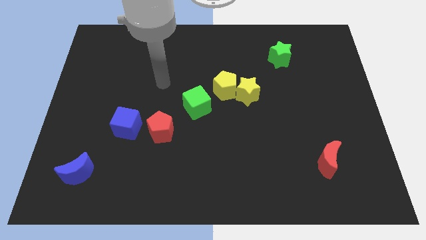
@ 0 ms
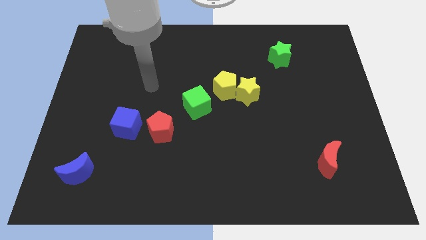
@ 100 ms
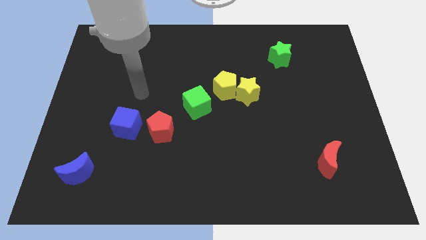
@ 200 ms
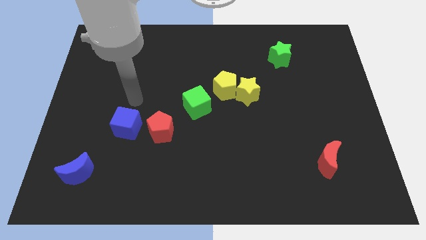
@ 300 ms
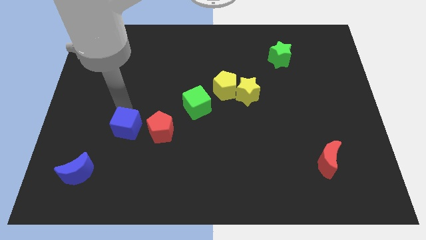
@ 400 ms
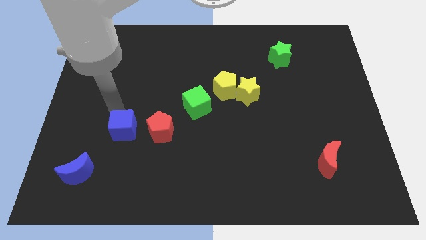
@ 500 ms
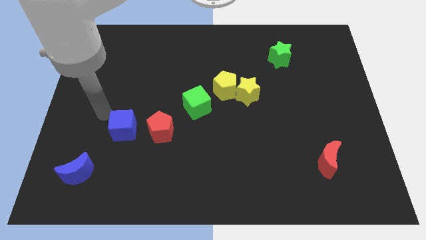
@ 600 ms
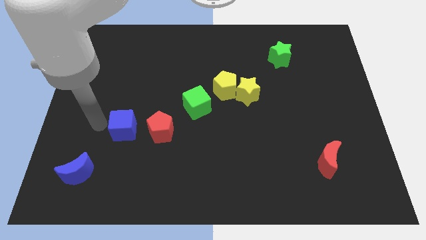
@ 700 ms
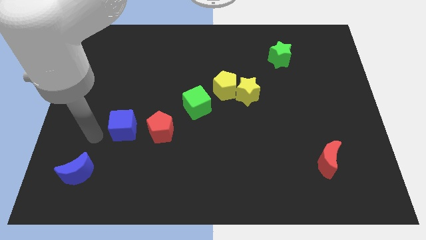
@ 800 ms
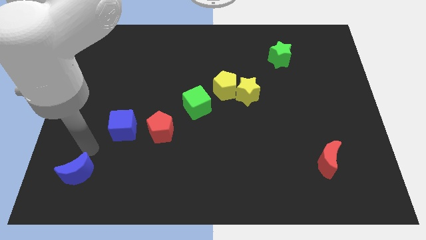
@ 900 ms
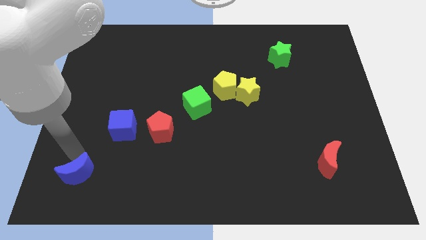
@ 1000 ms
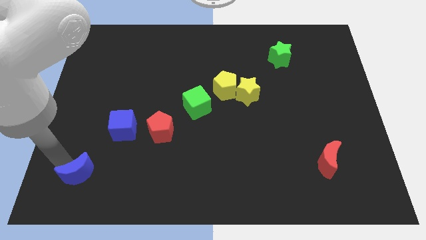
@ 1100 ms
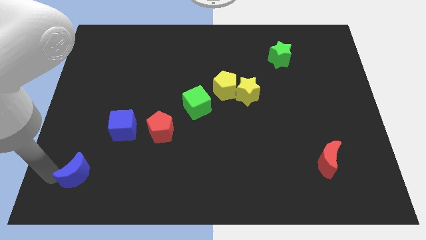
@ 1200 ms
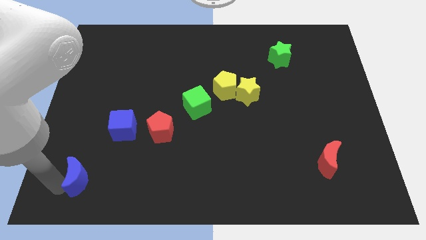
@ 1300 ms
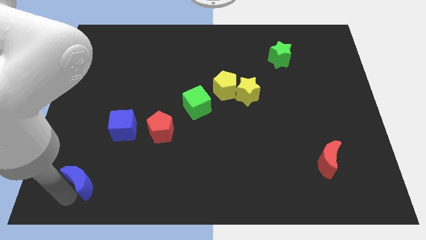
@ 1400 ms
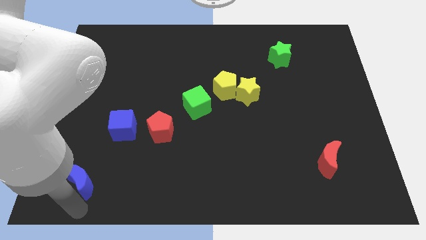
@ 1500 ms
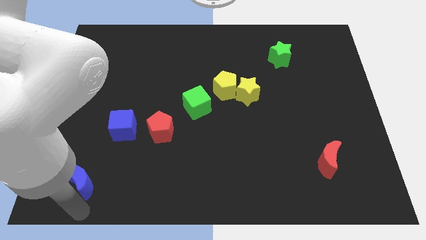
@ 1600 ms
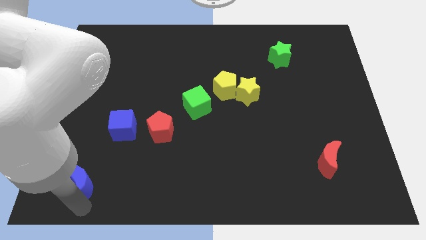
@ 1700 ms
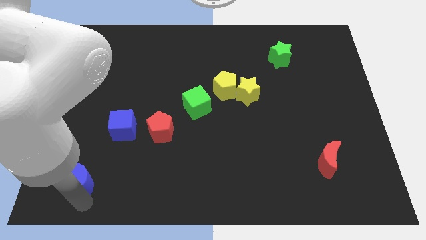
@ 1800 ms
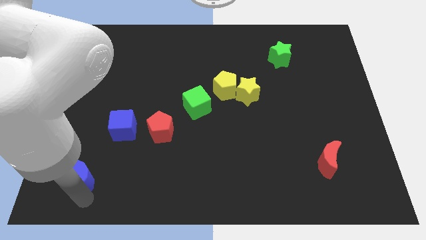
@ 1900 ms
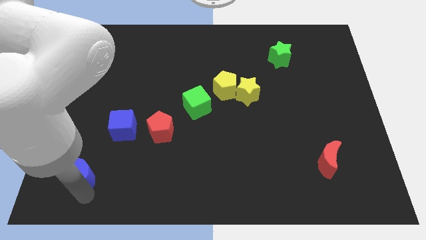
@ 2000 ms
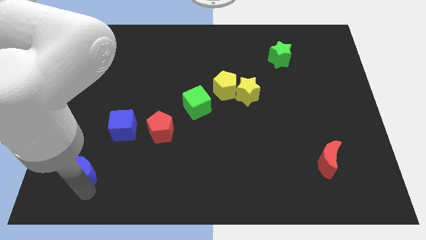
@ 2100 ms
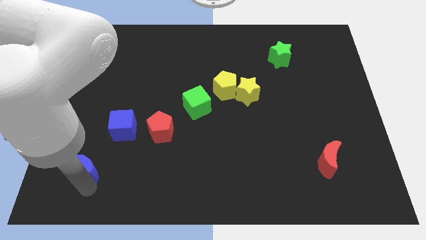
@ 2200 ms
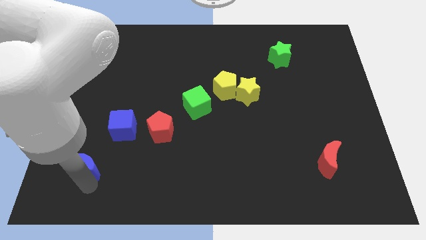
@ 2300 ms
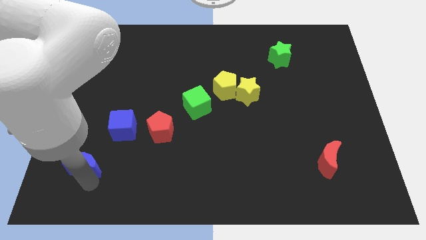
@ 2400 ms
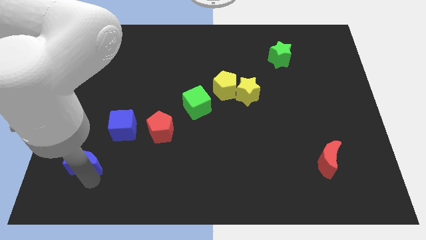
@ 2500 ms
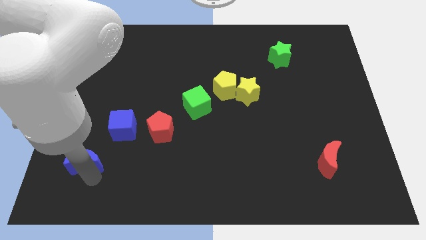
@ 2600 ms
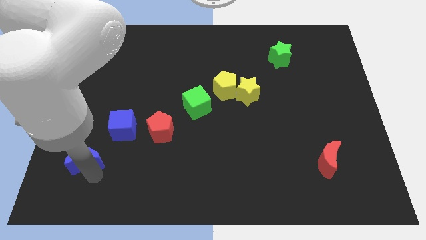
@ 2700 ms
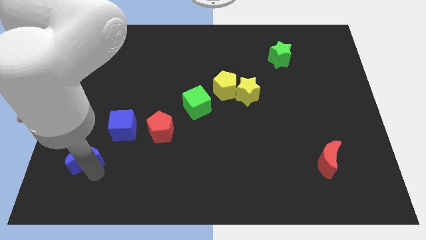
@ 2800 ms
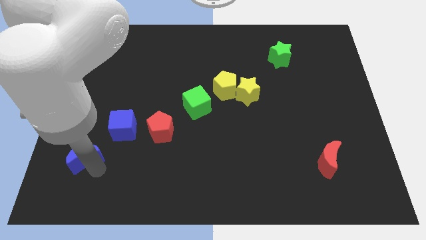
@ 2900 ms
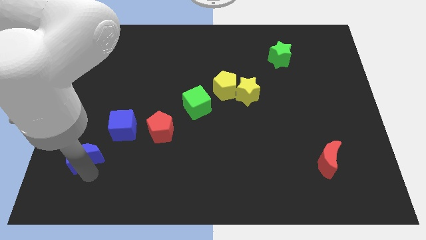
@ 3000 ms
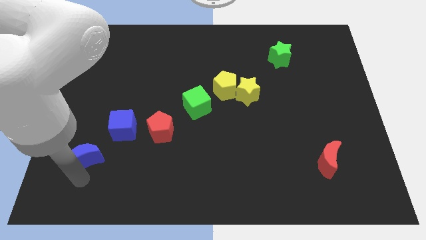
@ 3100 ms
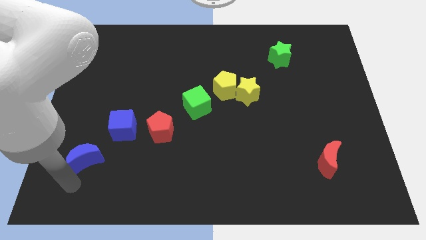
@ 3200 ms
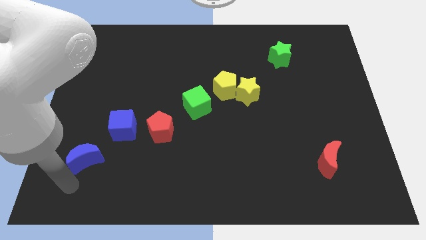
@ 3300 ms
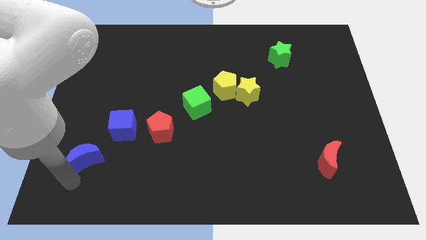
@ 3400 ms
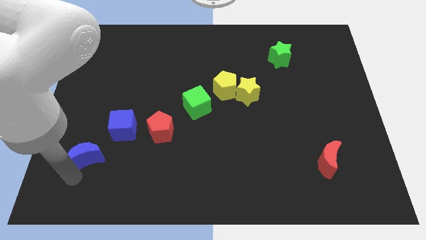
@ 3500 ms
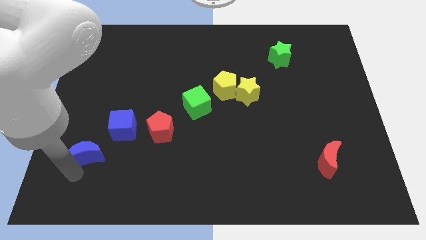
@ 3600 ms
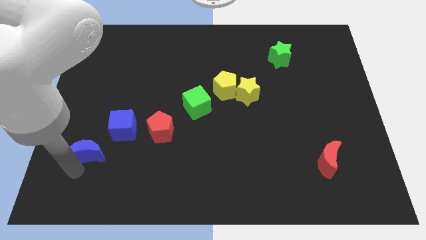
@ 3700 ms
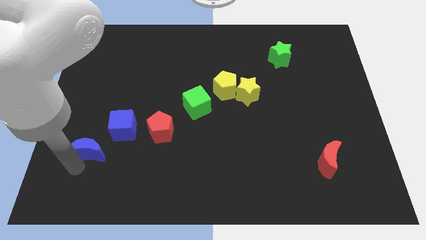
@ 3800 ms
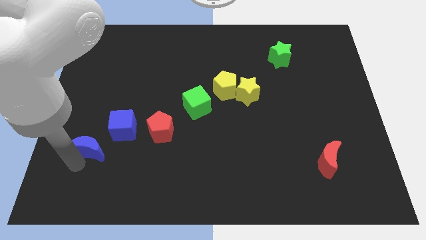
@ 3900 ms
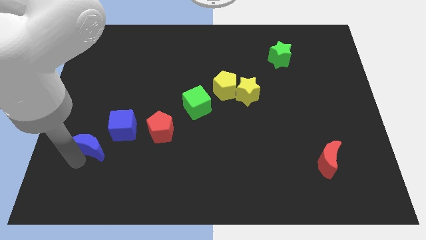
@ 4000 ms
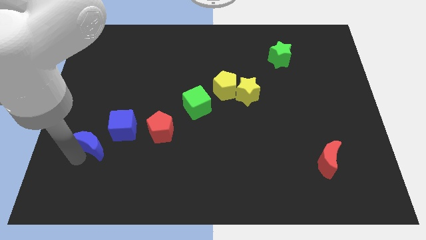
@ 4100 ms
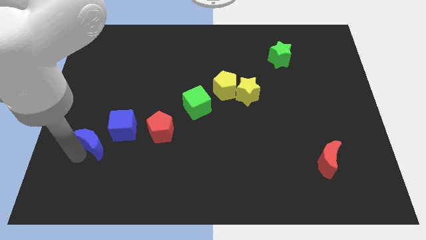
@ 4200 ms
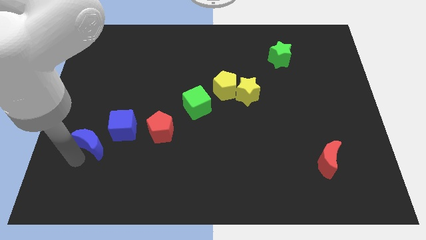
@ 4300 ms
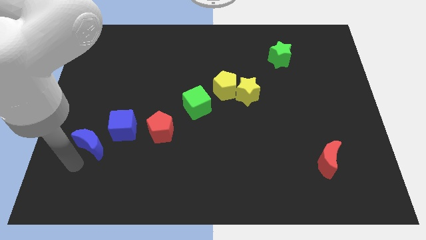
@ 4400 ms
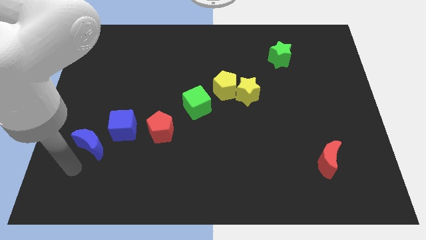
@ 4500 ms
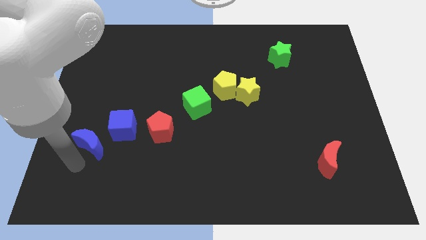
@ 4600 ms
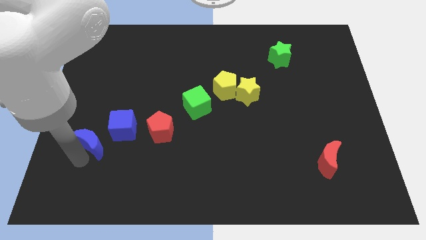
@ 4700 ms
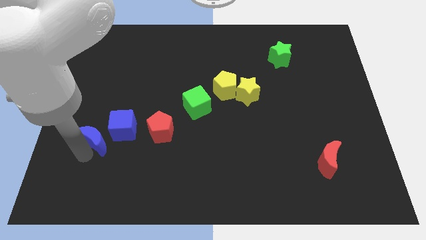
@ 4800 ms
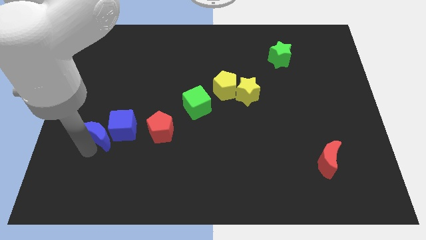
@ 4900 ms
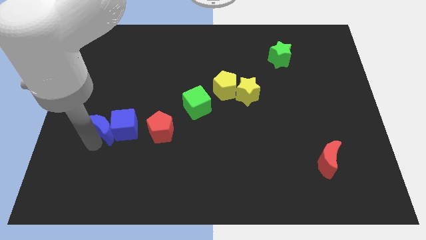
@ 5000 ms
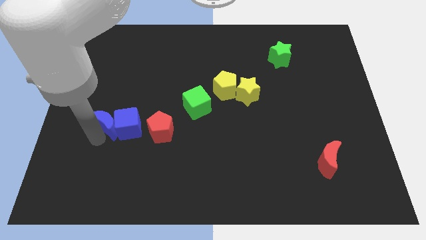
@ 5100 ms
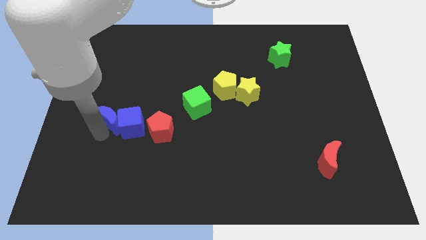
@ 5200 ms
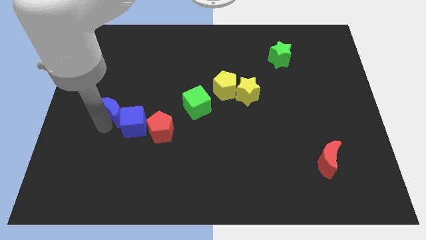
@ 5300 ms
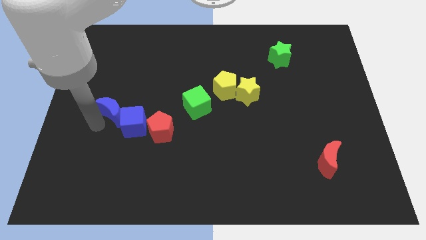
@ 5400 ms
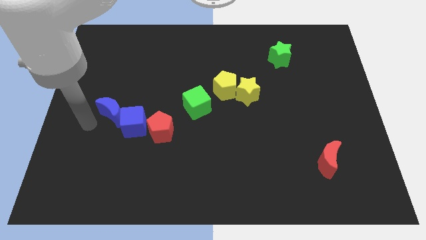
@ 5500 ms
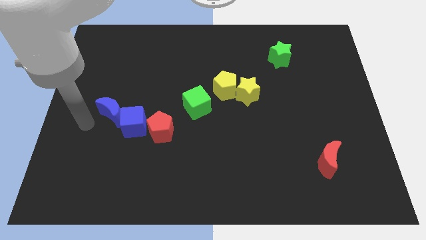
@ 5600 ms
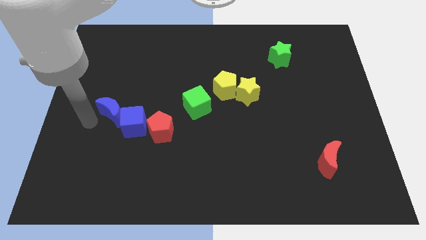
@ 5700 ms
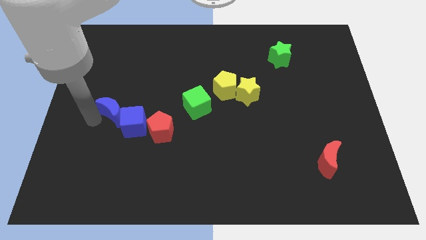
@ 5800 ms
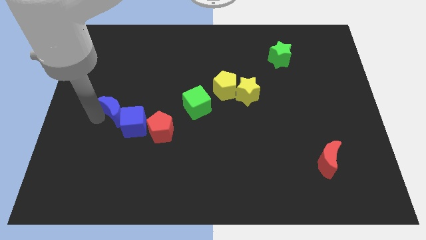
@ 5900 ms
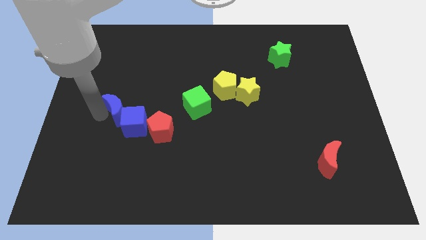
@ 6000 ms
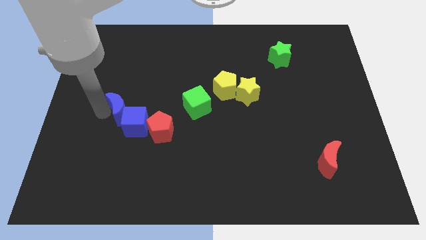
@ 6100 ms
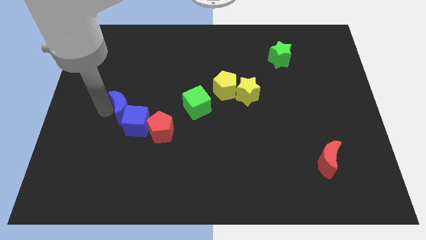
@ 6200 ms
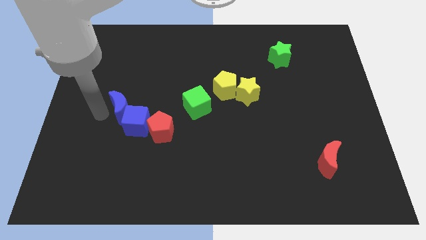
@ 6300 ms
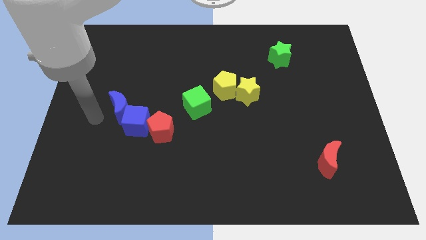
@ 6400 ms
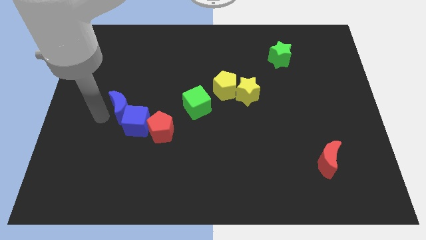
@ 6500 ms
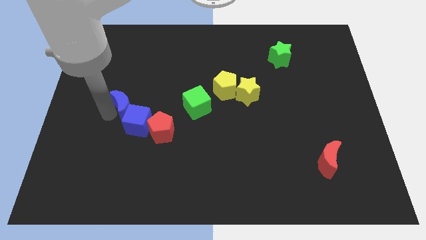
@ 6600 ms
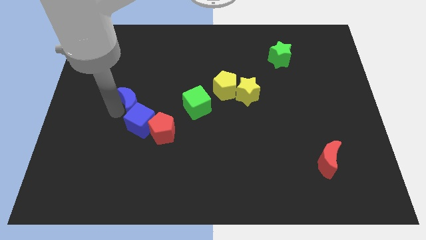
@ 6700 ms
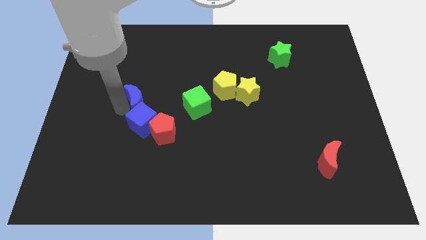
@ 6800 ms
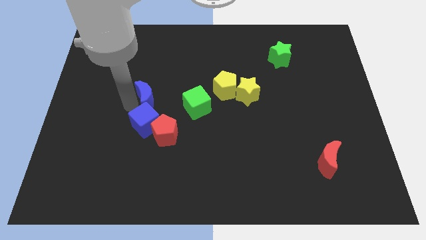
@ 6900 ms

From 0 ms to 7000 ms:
slide the blue moon up and then to the right

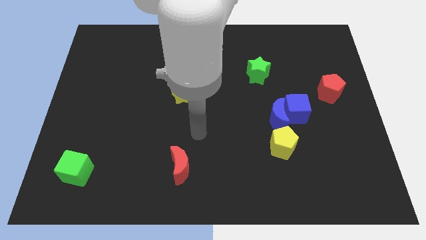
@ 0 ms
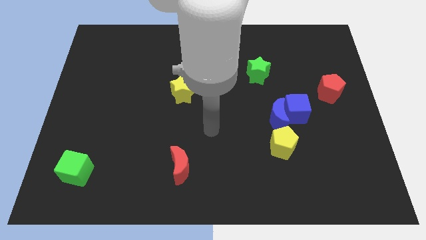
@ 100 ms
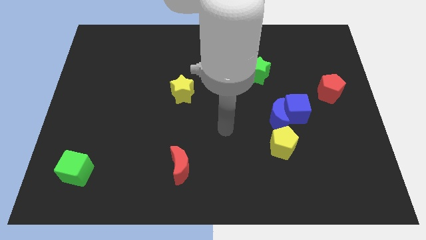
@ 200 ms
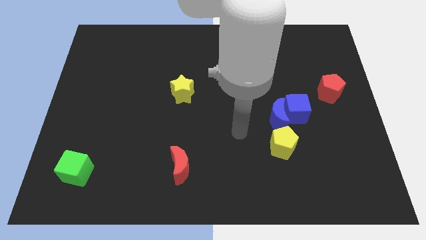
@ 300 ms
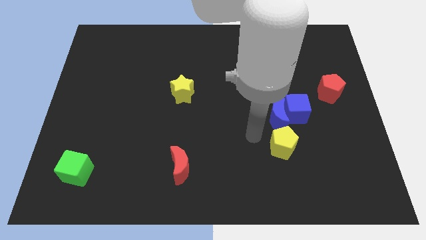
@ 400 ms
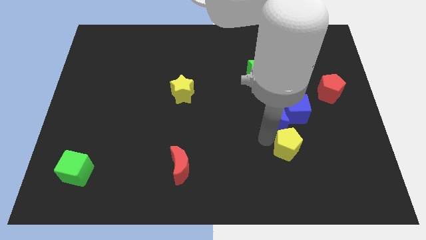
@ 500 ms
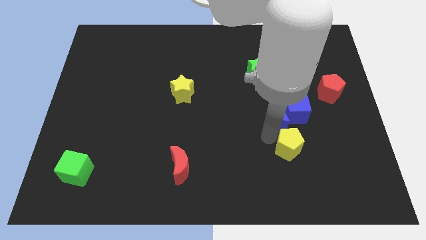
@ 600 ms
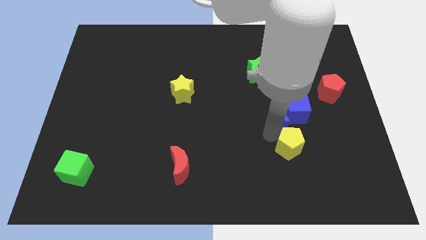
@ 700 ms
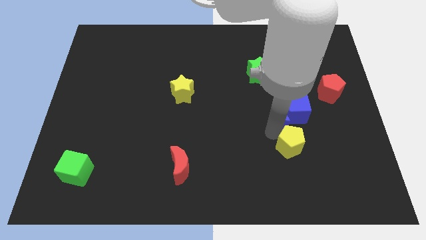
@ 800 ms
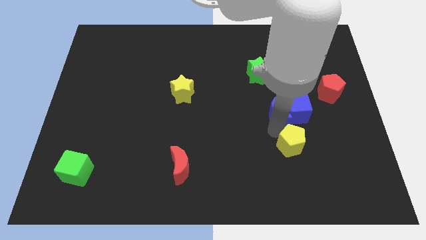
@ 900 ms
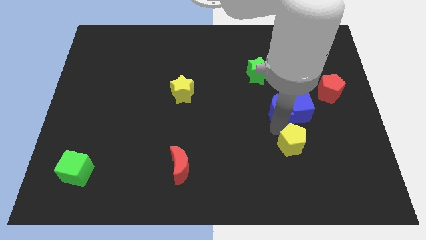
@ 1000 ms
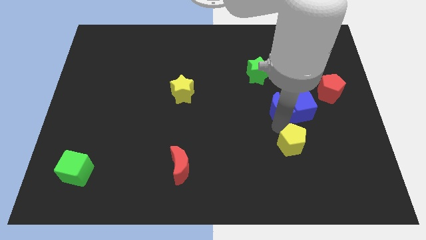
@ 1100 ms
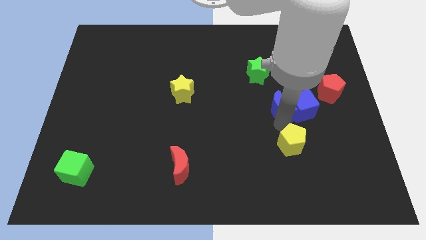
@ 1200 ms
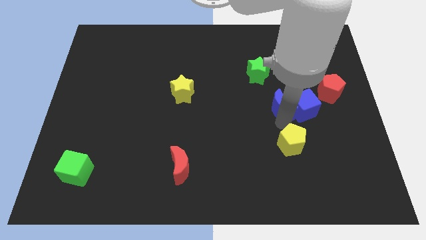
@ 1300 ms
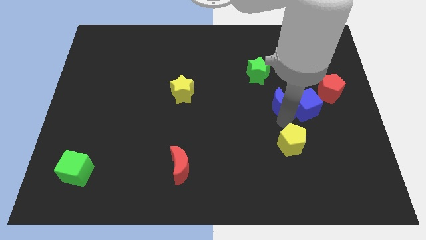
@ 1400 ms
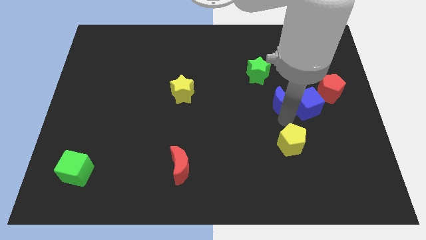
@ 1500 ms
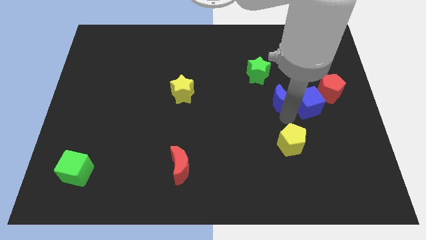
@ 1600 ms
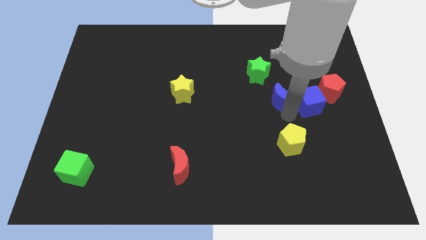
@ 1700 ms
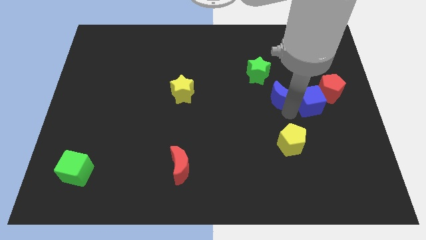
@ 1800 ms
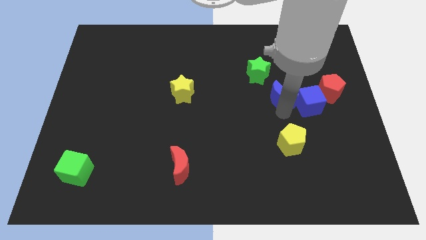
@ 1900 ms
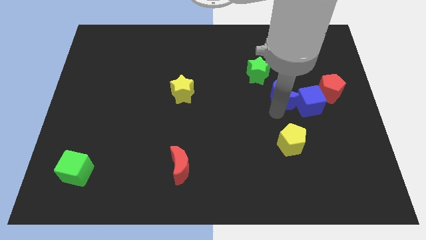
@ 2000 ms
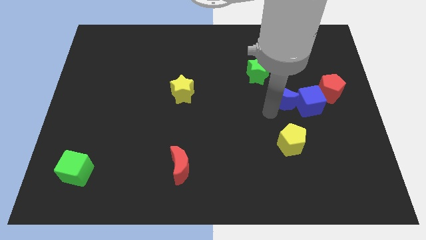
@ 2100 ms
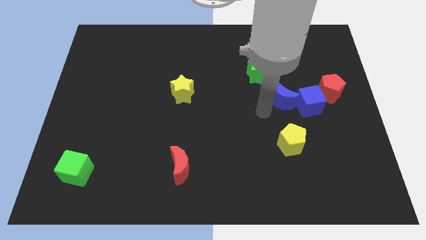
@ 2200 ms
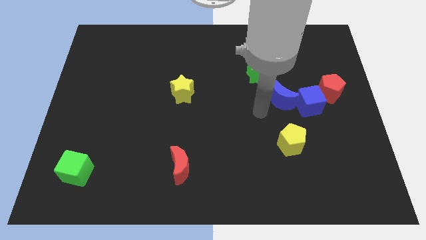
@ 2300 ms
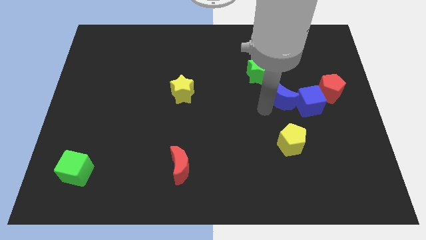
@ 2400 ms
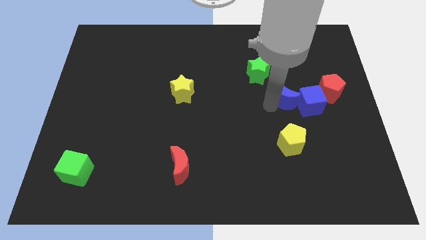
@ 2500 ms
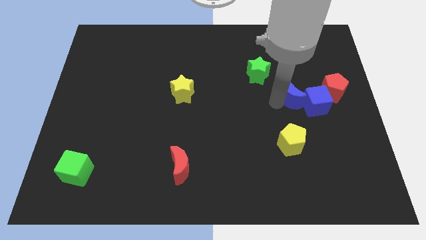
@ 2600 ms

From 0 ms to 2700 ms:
push the blue moon a bit up and right diagonally
